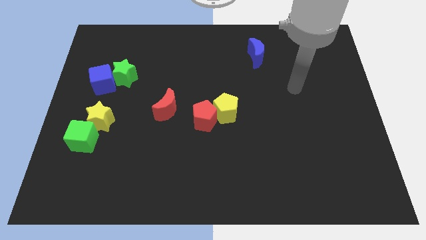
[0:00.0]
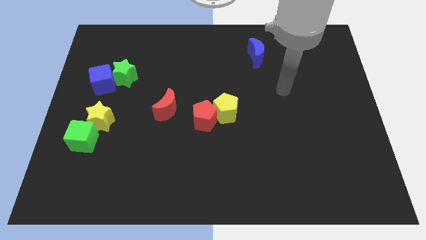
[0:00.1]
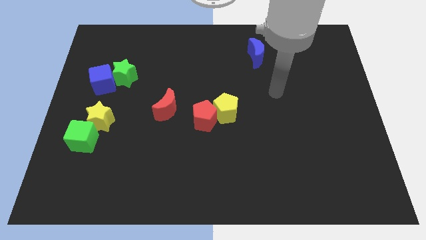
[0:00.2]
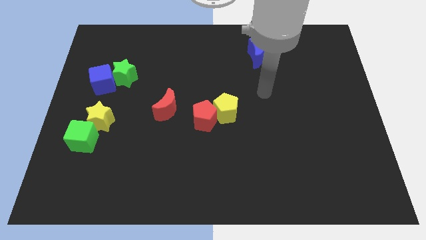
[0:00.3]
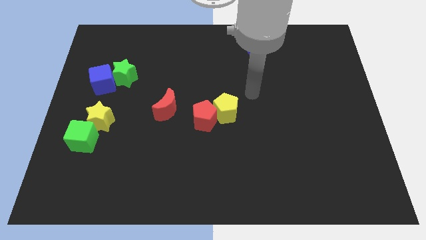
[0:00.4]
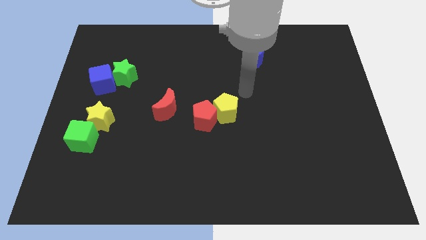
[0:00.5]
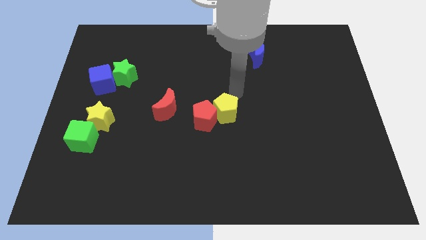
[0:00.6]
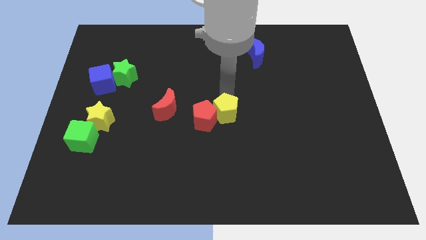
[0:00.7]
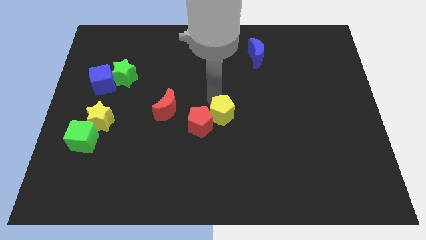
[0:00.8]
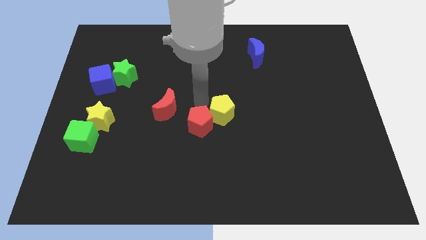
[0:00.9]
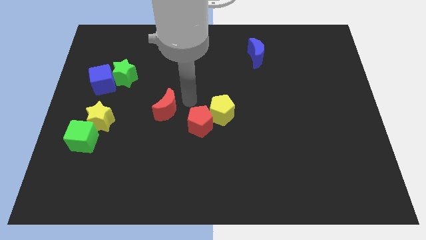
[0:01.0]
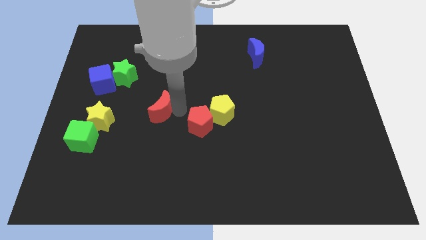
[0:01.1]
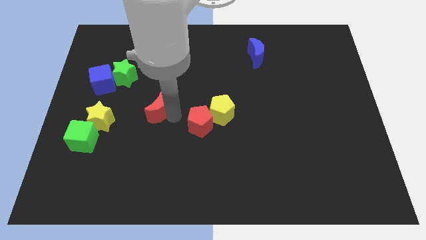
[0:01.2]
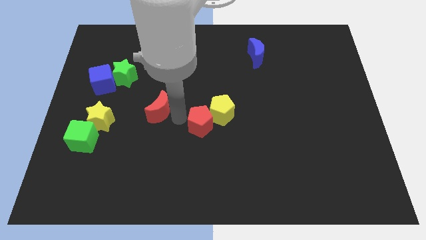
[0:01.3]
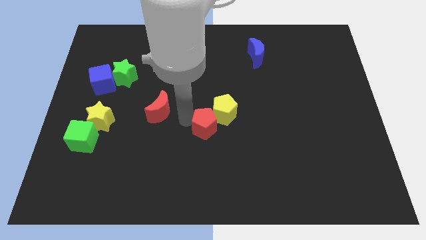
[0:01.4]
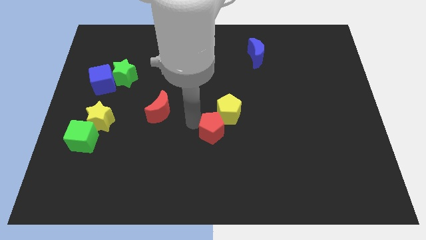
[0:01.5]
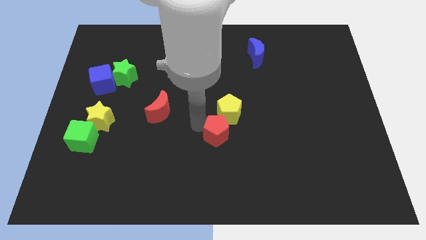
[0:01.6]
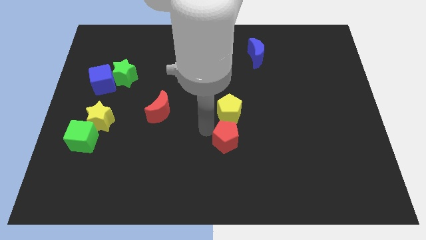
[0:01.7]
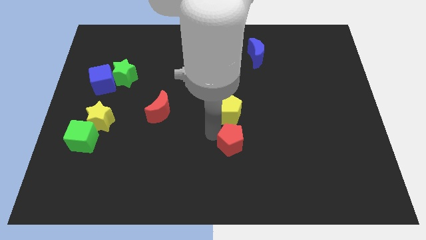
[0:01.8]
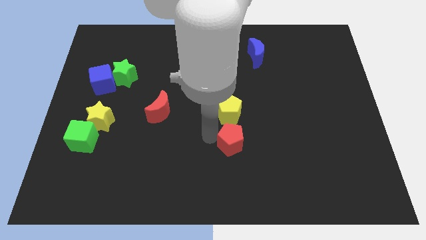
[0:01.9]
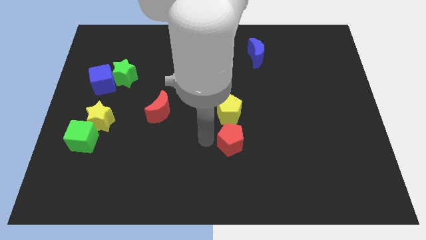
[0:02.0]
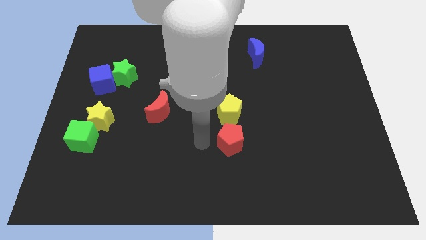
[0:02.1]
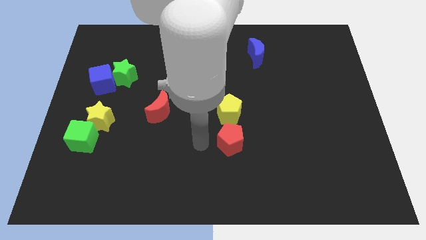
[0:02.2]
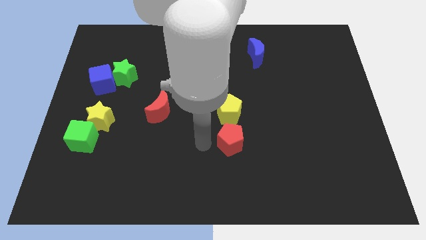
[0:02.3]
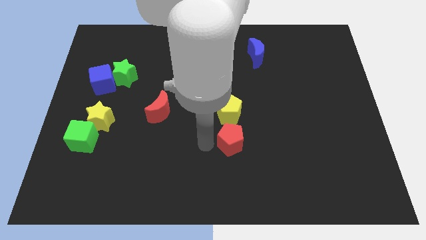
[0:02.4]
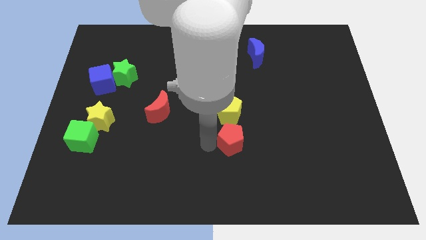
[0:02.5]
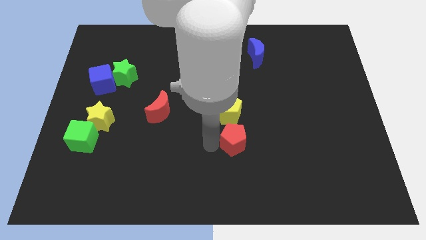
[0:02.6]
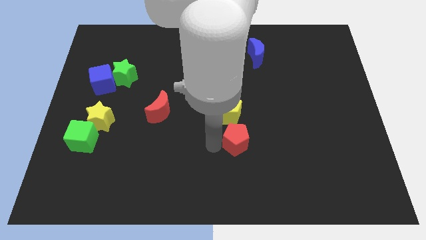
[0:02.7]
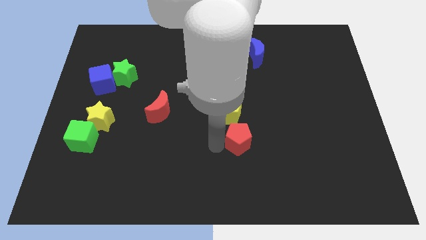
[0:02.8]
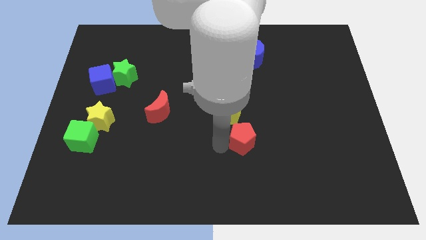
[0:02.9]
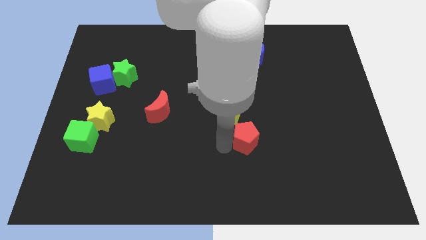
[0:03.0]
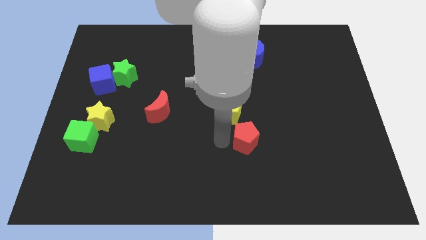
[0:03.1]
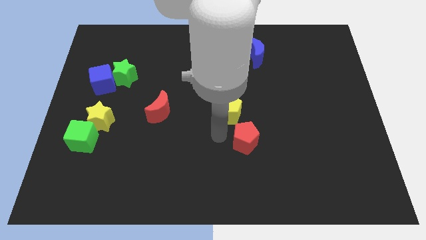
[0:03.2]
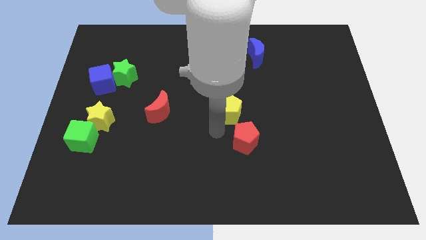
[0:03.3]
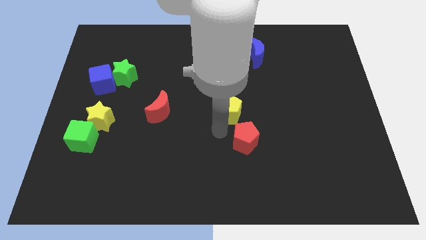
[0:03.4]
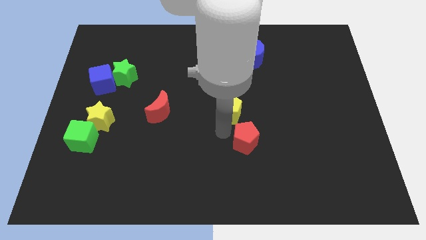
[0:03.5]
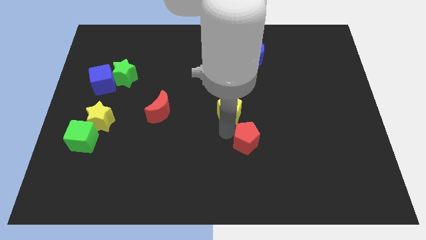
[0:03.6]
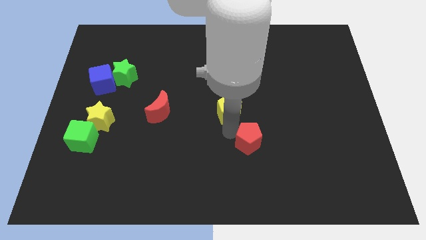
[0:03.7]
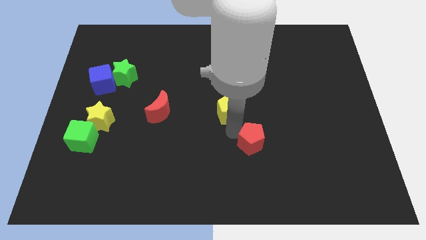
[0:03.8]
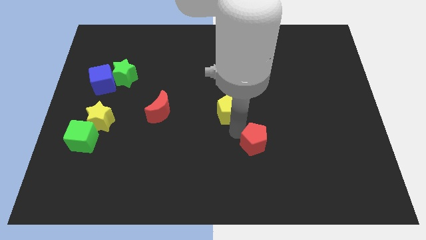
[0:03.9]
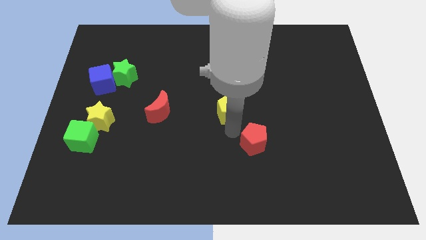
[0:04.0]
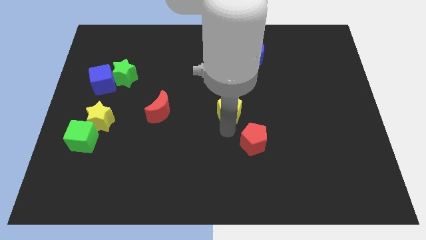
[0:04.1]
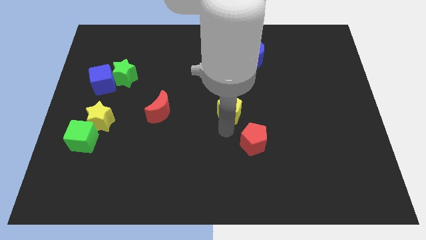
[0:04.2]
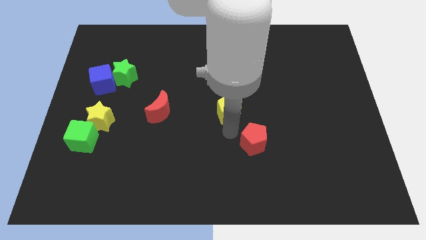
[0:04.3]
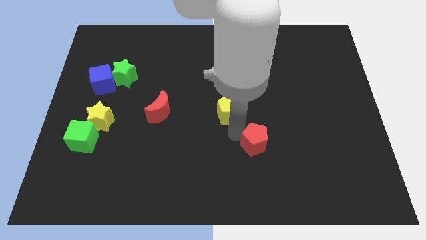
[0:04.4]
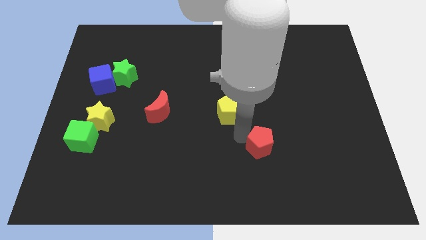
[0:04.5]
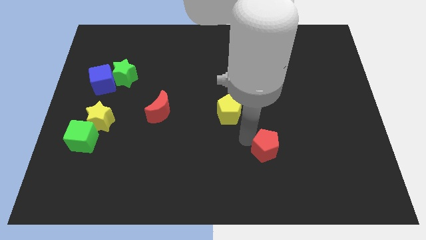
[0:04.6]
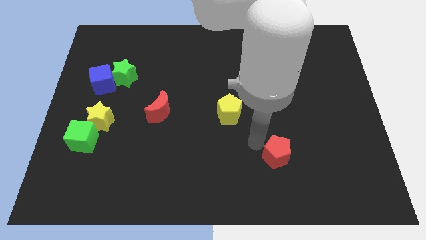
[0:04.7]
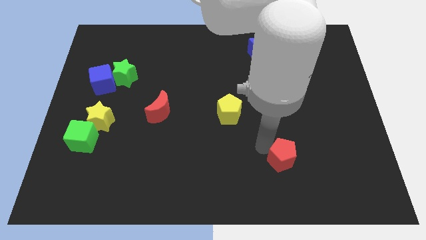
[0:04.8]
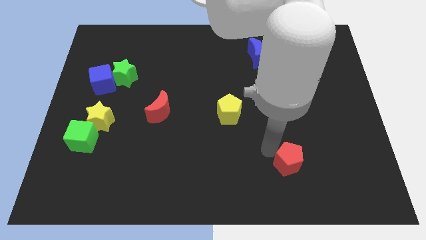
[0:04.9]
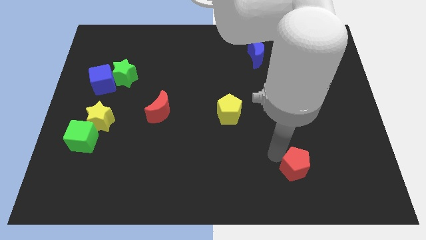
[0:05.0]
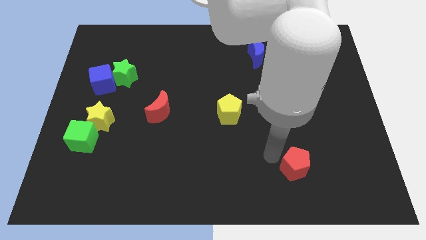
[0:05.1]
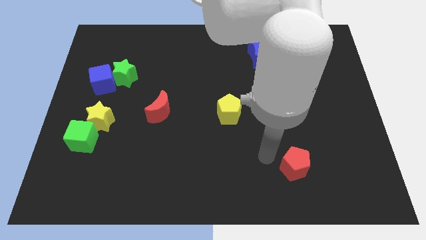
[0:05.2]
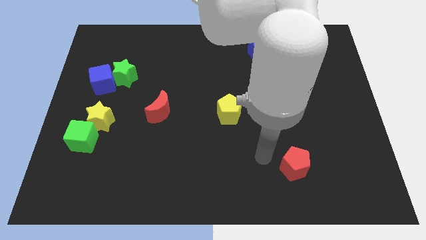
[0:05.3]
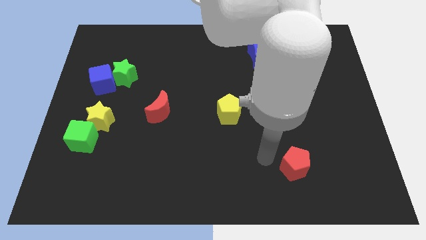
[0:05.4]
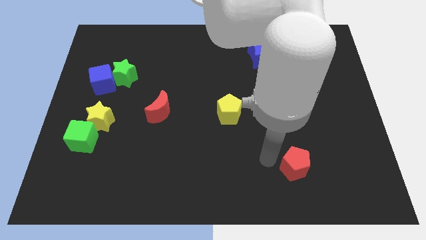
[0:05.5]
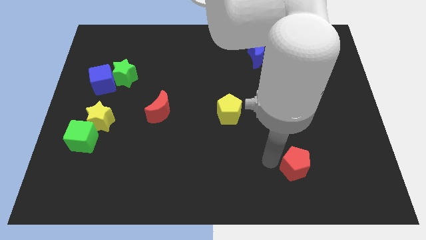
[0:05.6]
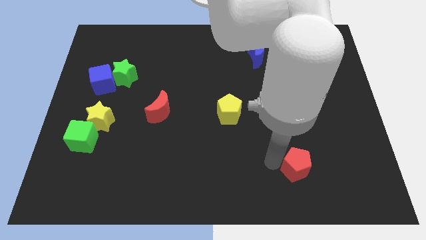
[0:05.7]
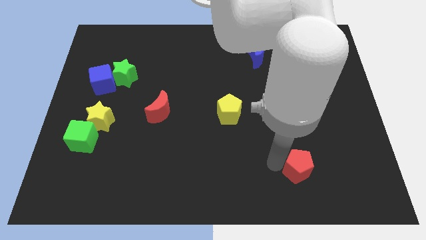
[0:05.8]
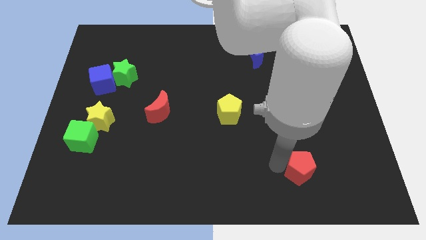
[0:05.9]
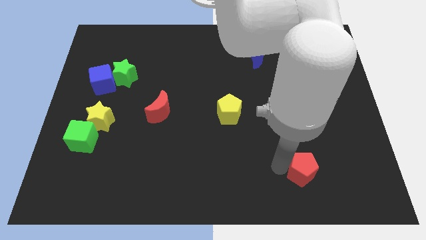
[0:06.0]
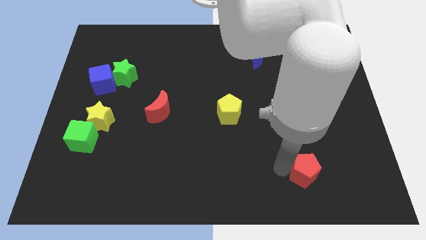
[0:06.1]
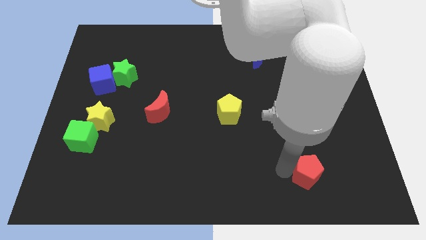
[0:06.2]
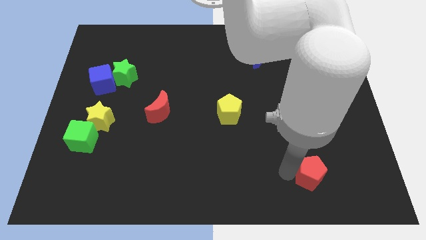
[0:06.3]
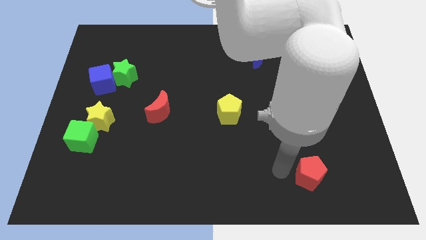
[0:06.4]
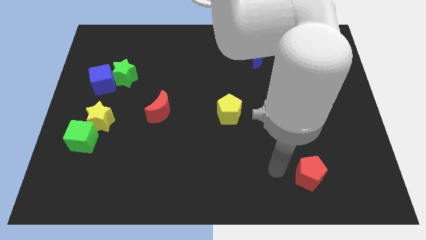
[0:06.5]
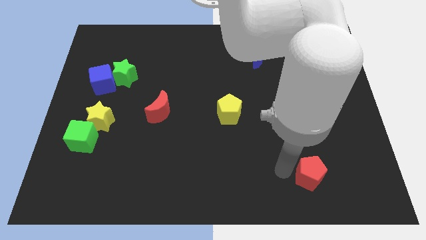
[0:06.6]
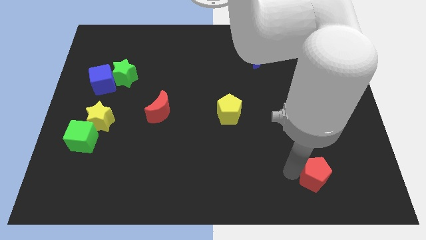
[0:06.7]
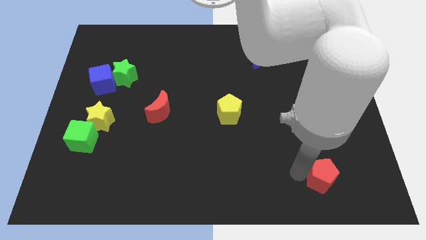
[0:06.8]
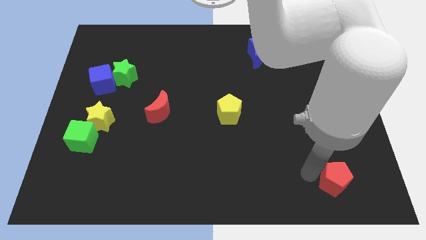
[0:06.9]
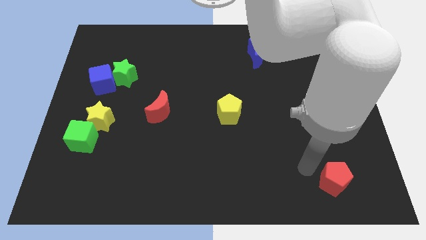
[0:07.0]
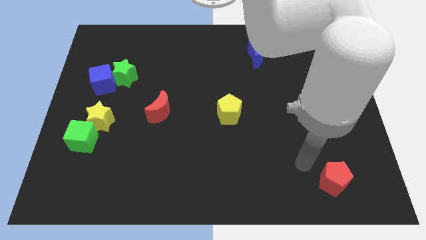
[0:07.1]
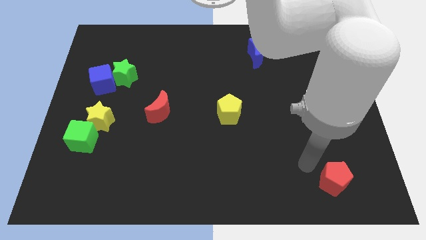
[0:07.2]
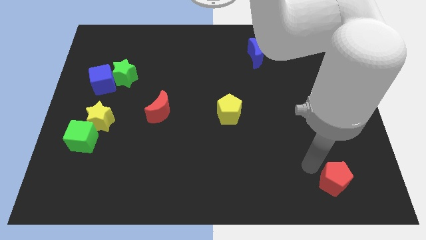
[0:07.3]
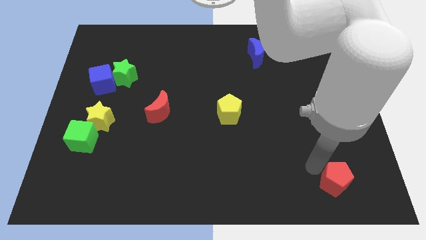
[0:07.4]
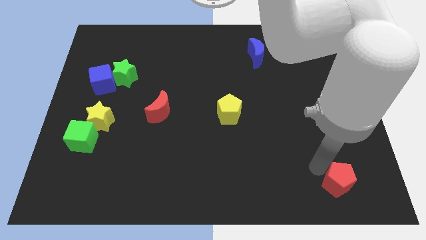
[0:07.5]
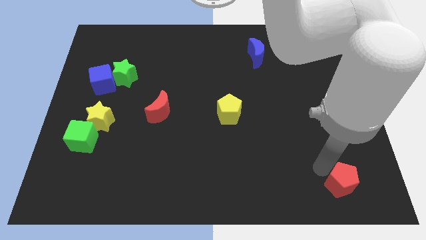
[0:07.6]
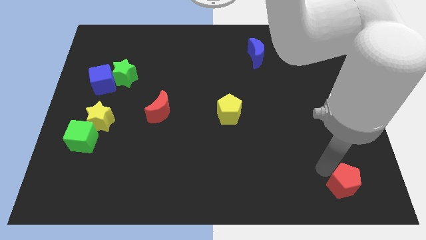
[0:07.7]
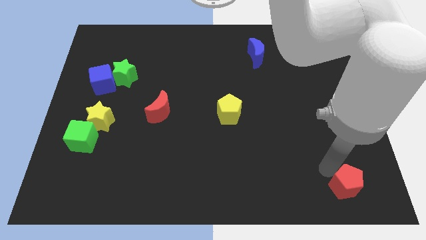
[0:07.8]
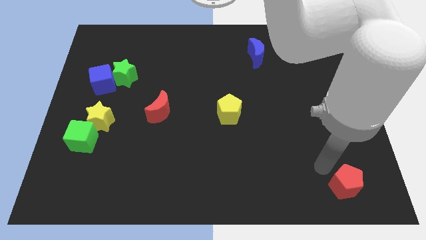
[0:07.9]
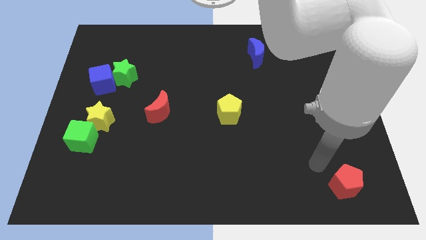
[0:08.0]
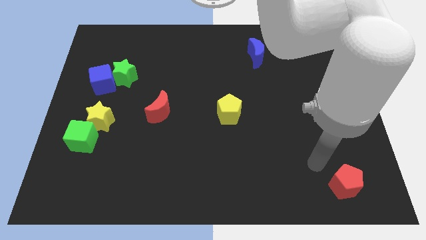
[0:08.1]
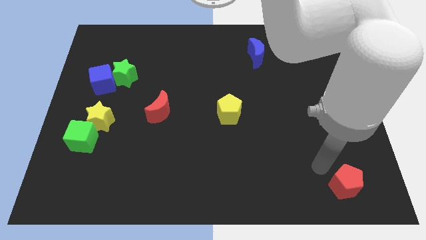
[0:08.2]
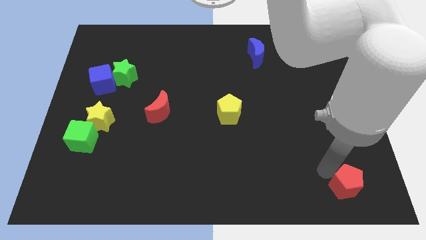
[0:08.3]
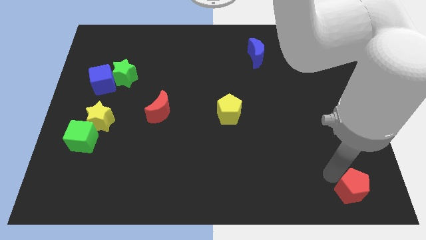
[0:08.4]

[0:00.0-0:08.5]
put the red pentagon to the bottom right corner
